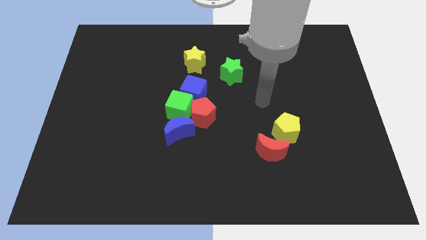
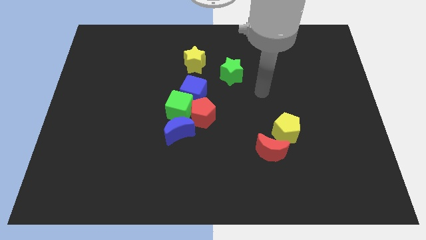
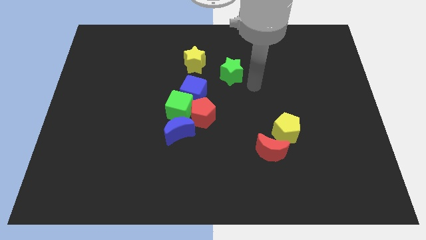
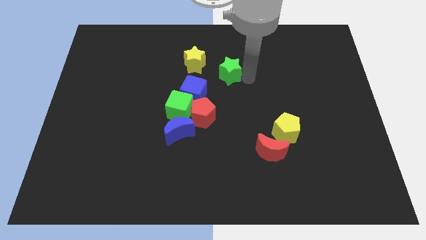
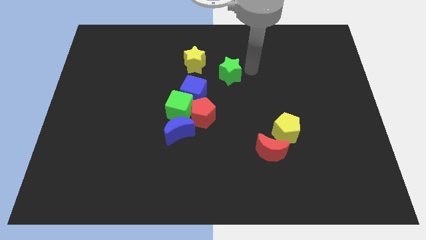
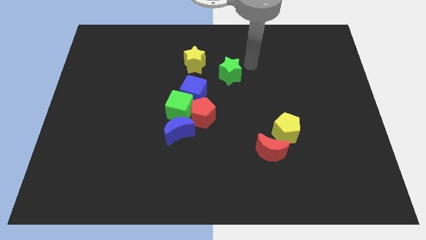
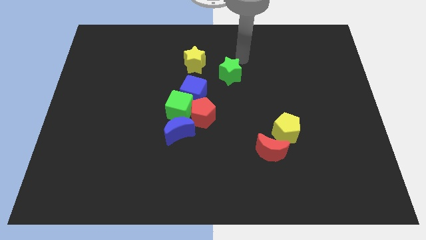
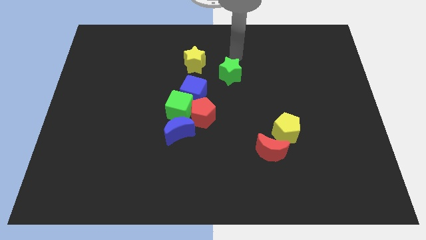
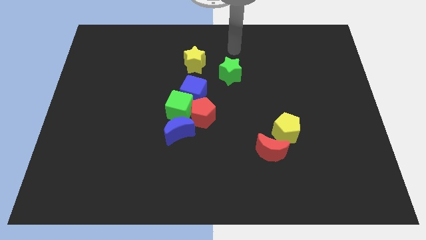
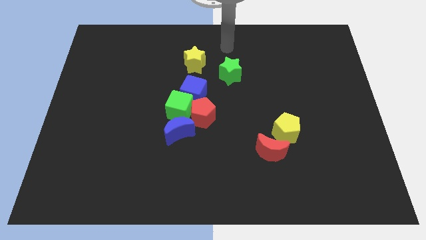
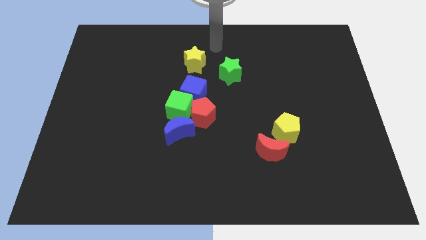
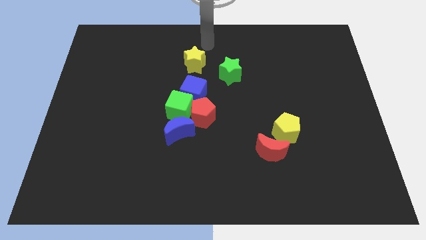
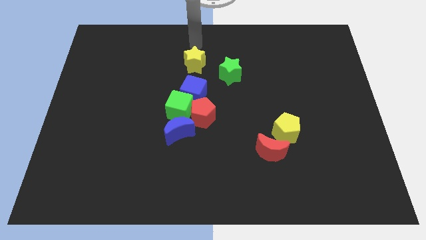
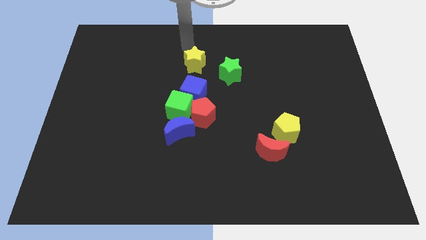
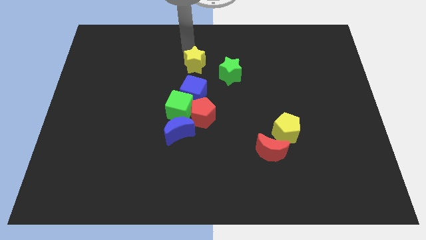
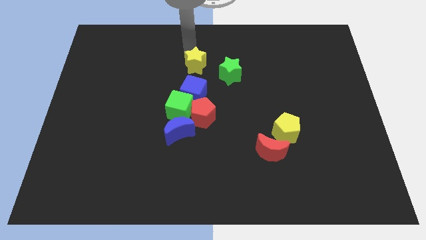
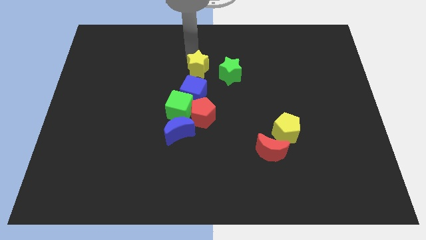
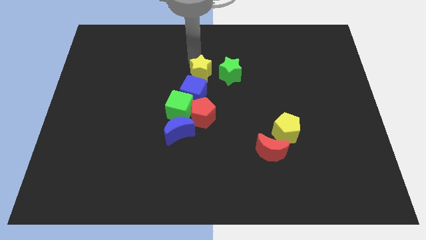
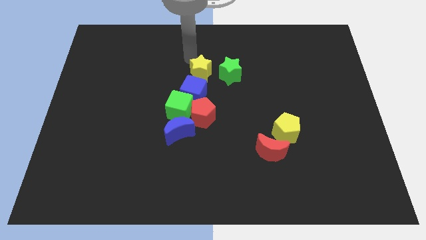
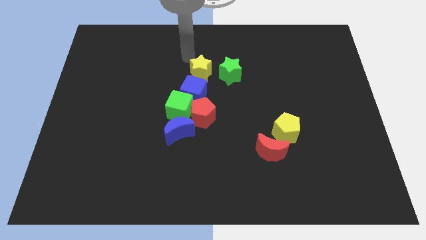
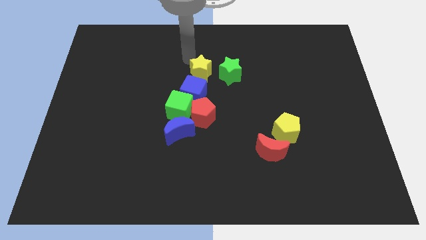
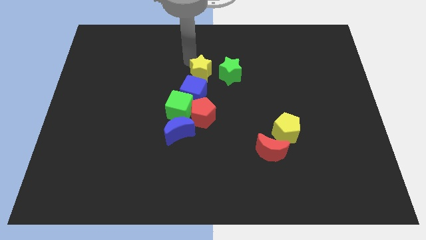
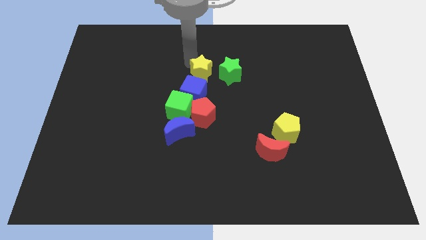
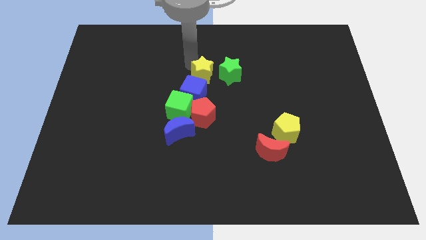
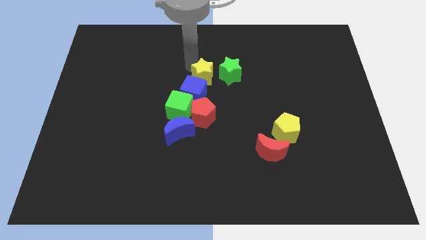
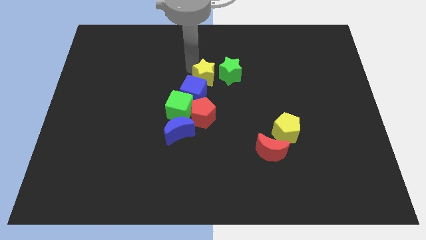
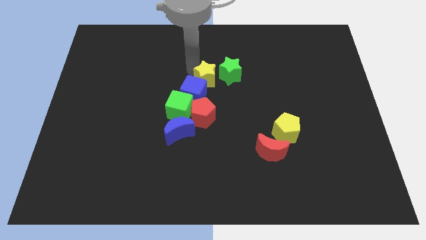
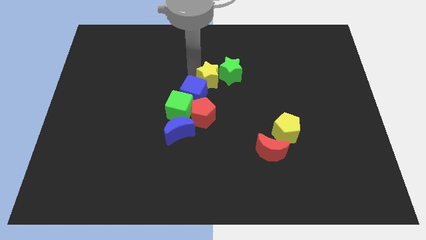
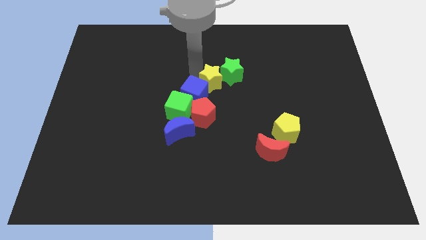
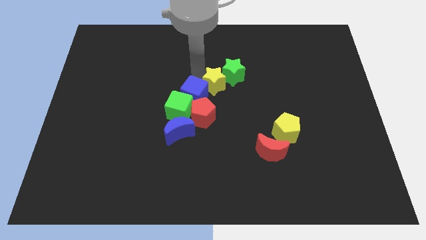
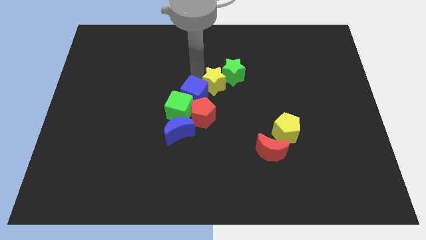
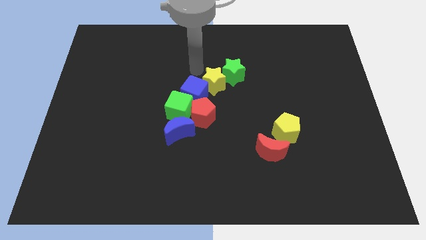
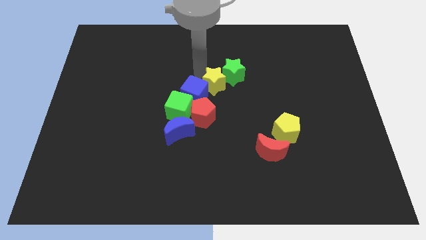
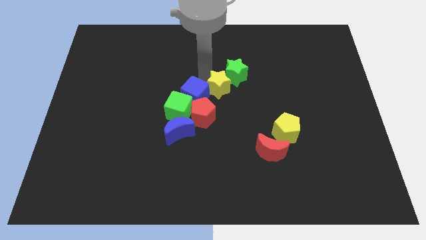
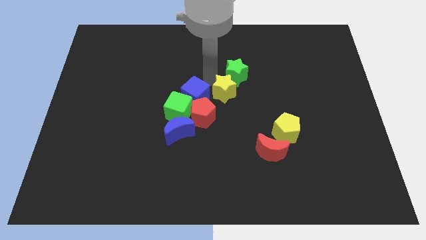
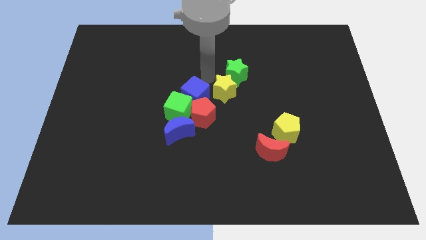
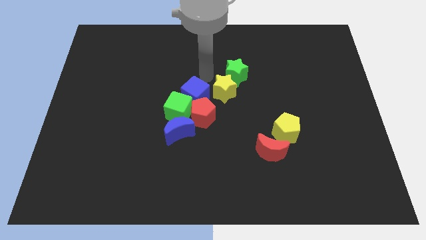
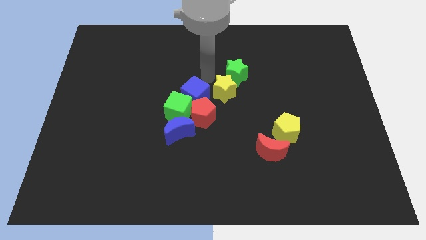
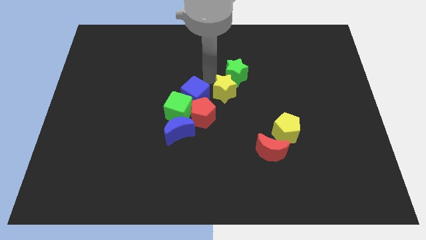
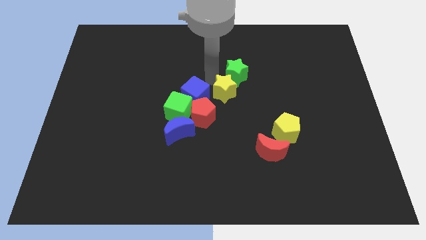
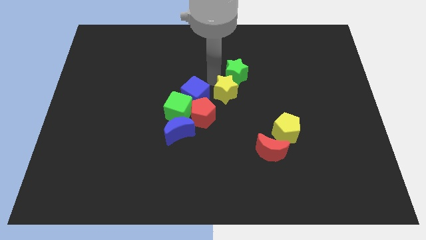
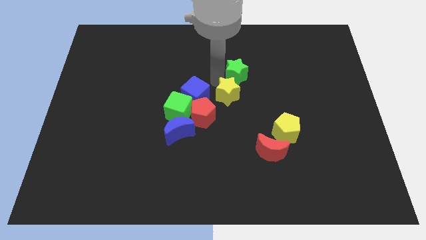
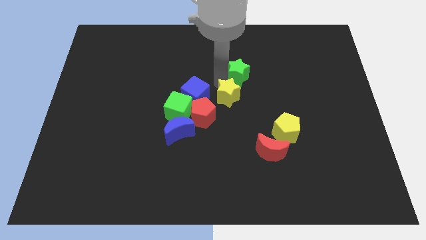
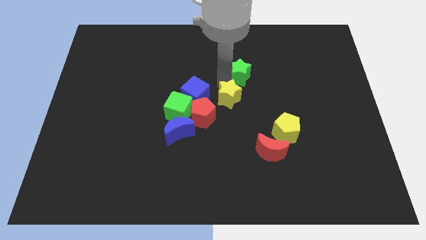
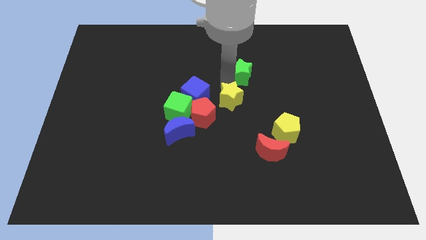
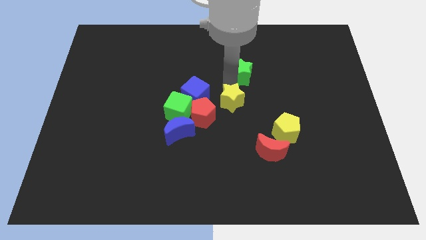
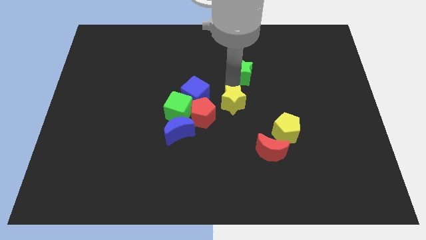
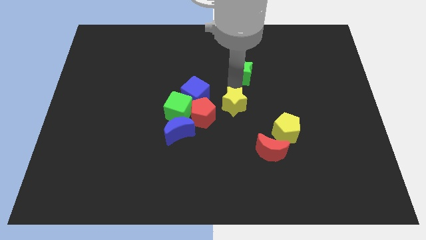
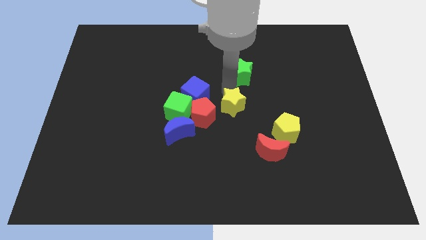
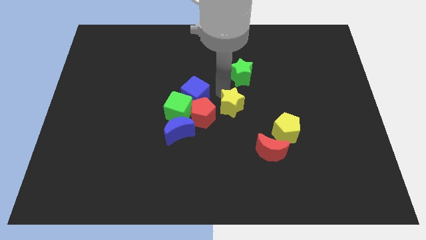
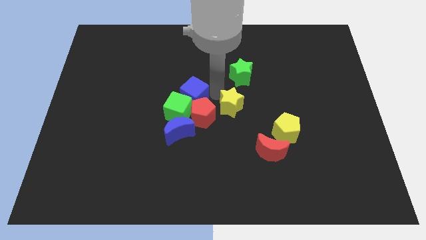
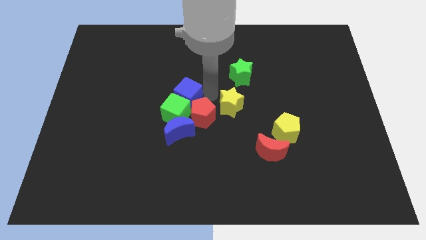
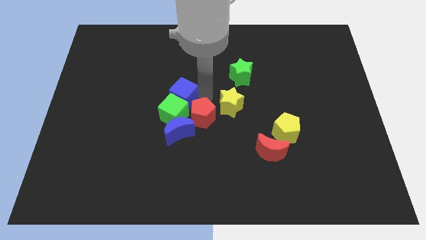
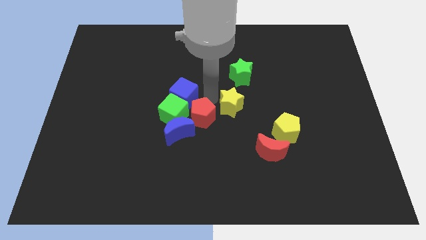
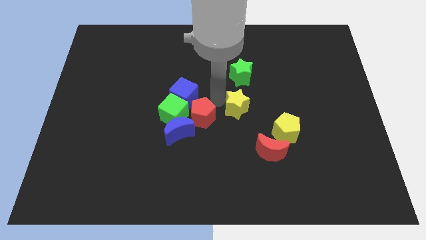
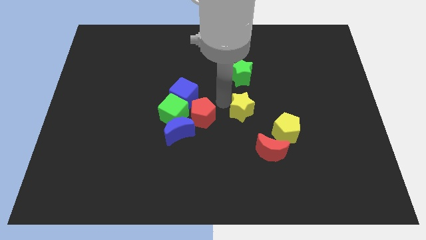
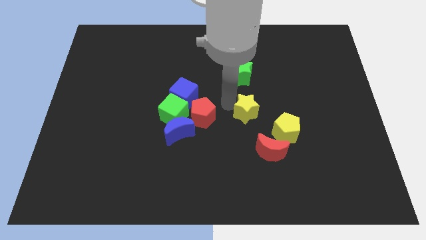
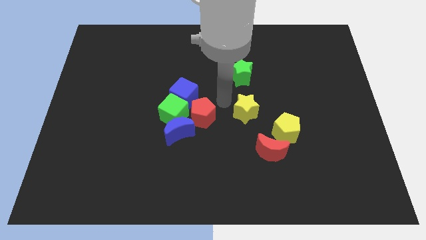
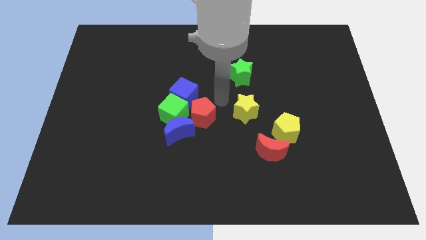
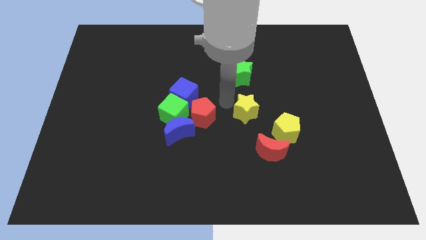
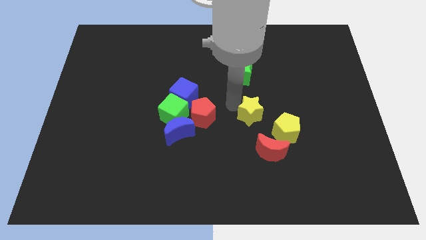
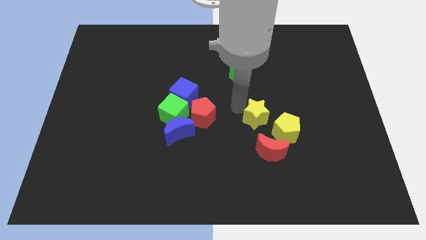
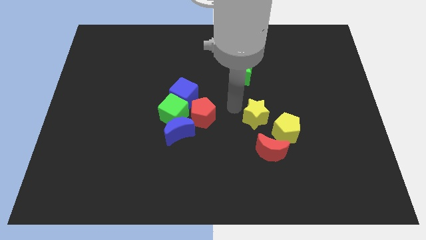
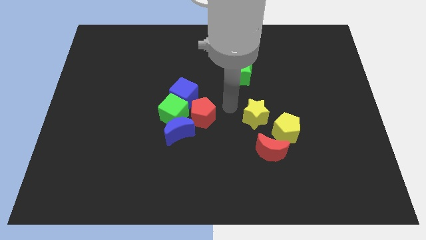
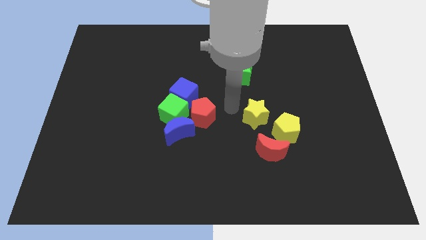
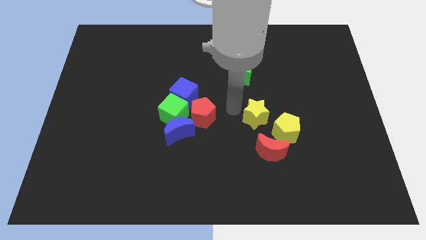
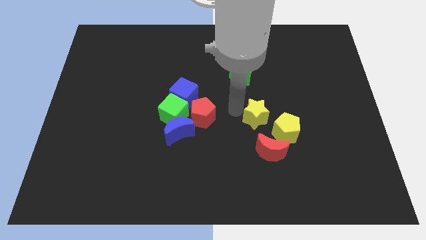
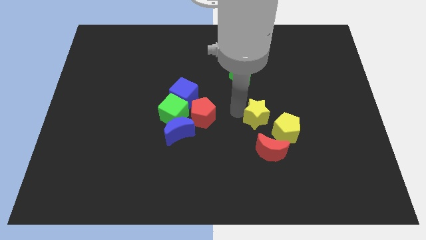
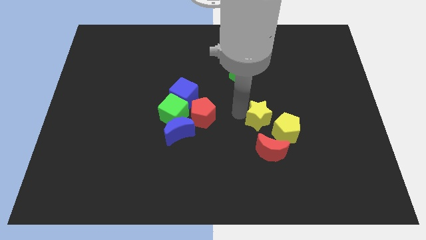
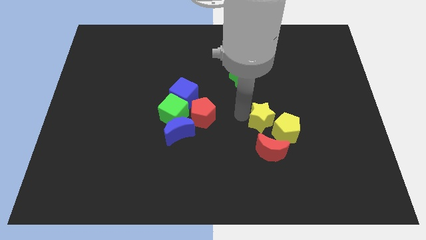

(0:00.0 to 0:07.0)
slide the yellow star next to the yellow pentagon

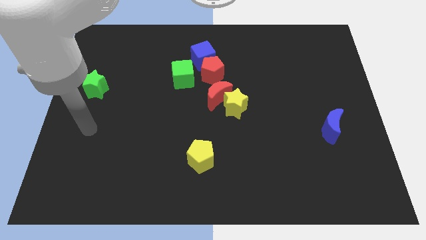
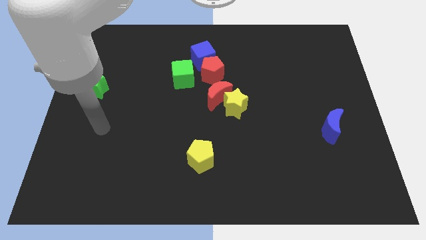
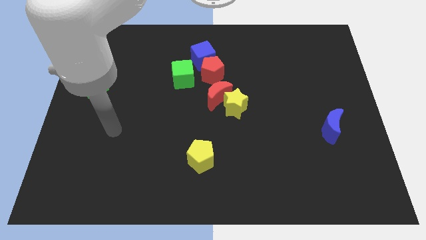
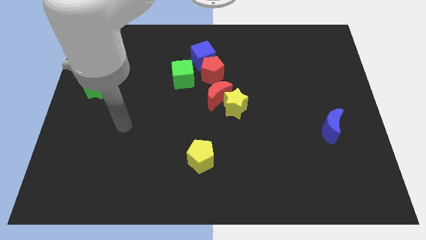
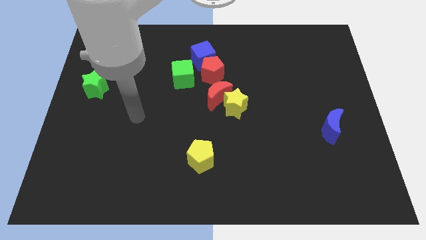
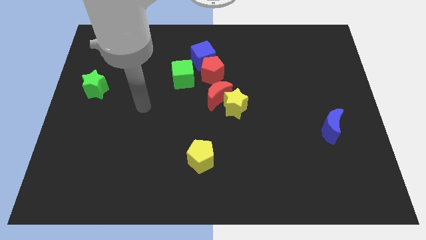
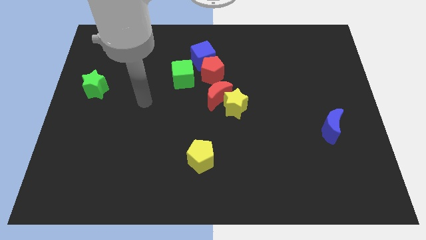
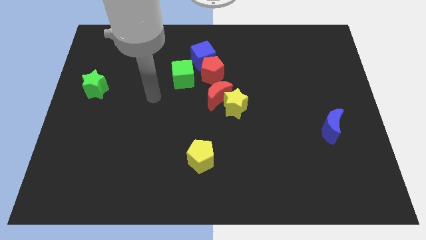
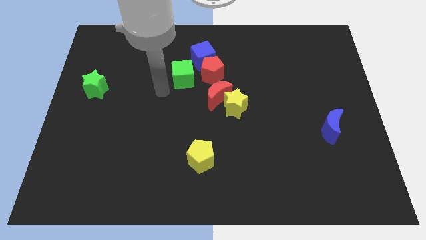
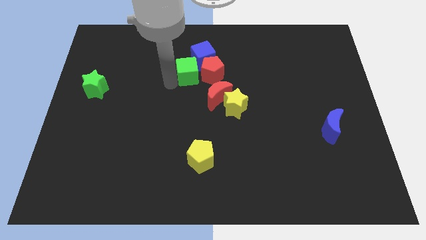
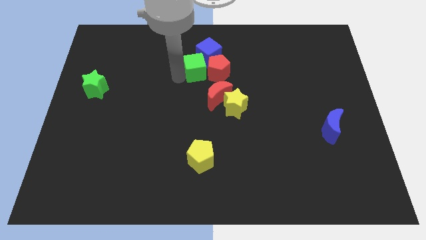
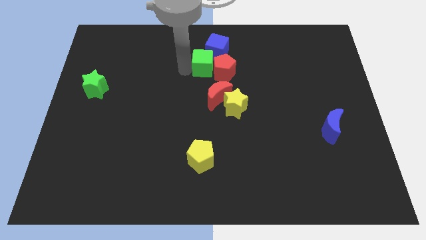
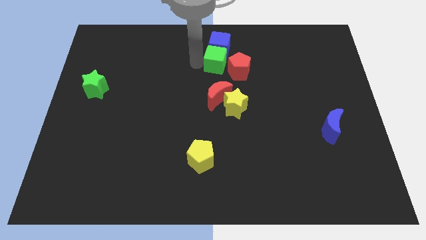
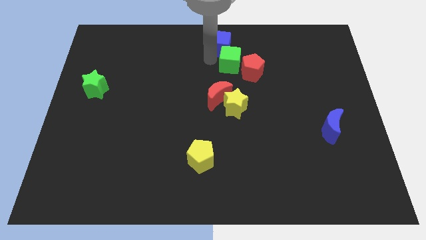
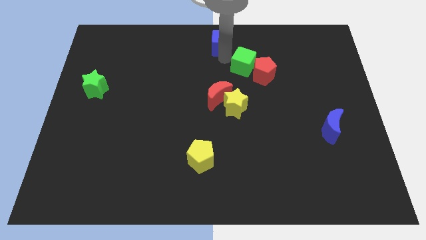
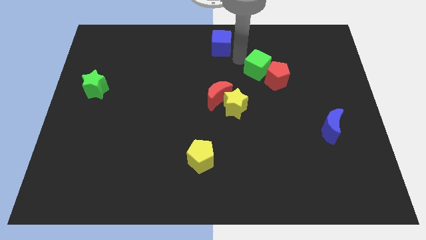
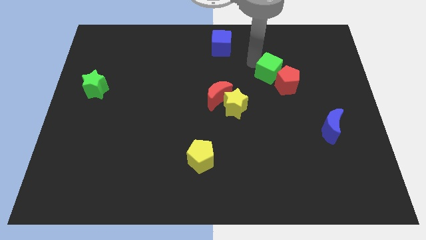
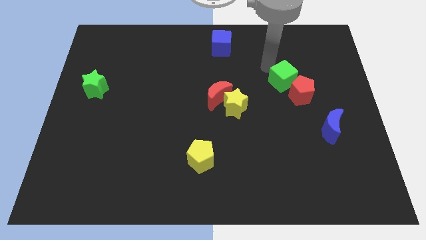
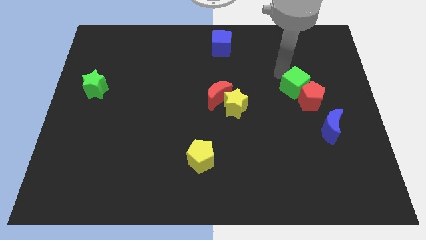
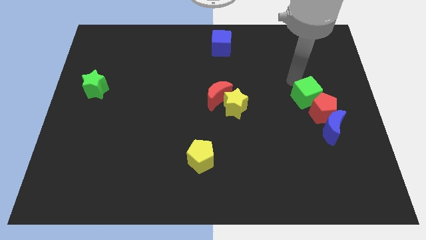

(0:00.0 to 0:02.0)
push the red pentagon to the blue moon
